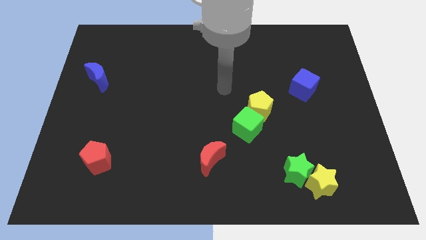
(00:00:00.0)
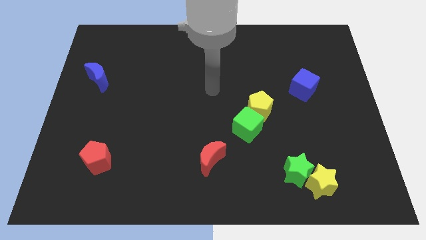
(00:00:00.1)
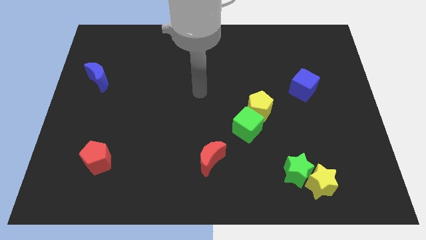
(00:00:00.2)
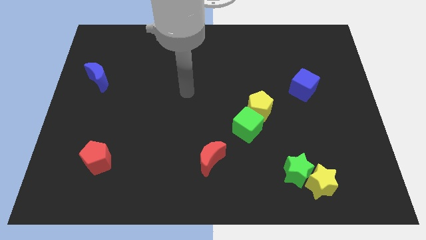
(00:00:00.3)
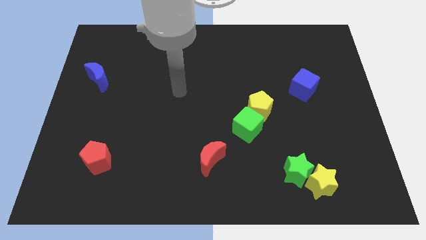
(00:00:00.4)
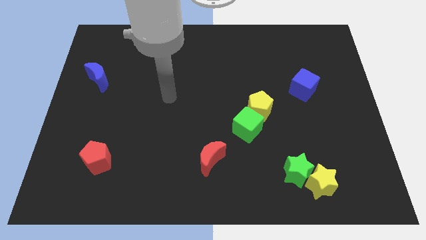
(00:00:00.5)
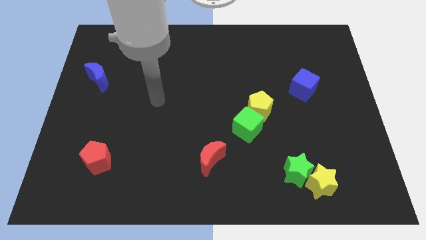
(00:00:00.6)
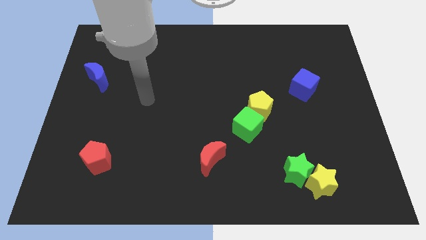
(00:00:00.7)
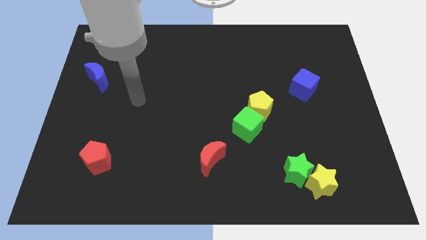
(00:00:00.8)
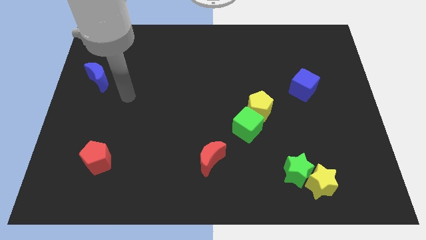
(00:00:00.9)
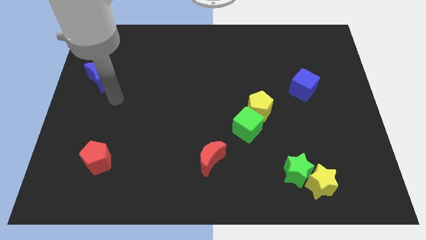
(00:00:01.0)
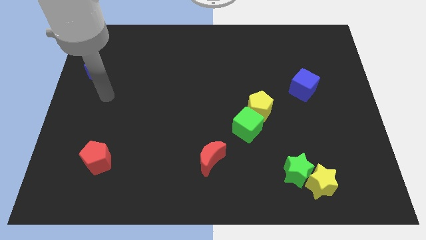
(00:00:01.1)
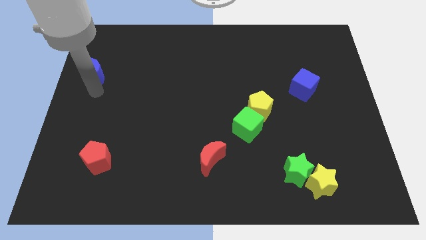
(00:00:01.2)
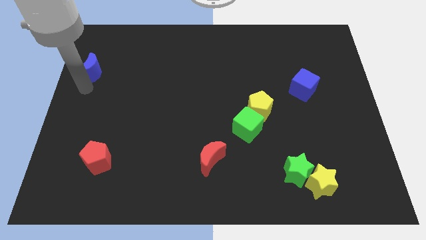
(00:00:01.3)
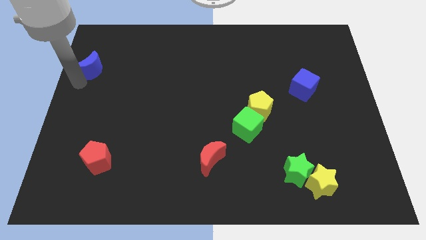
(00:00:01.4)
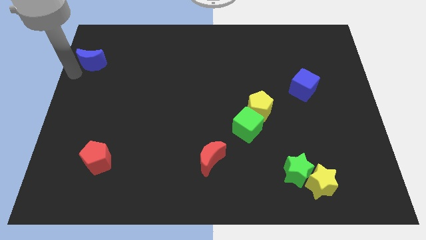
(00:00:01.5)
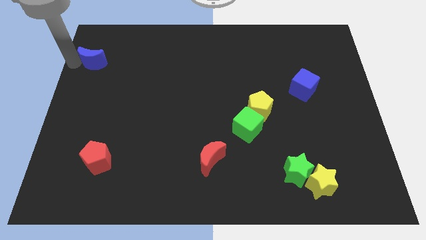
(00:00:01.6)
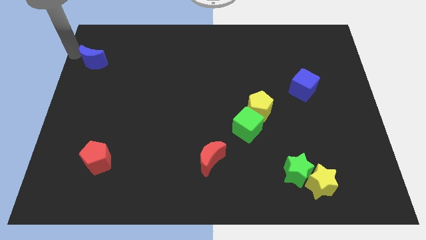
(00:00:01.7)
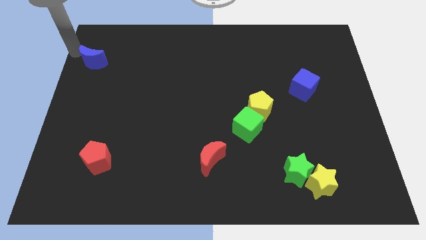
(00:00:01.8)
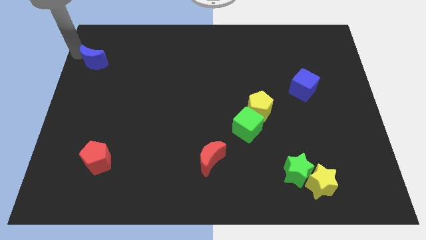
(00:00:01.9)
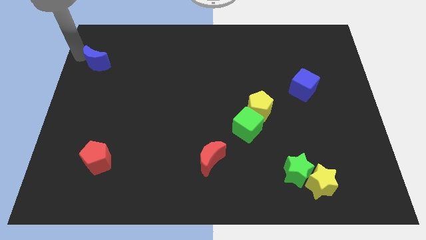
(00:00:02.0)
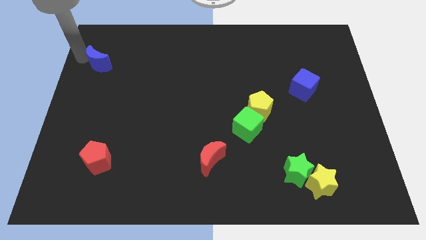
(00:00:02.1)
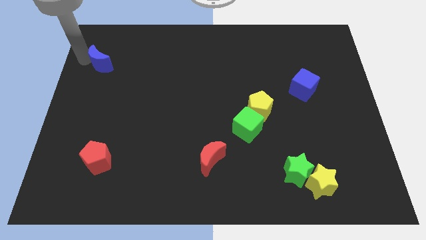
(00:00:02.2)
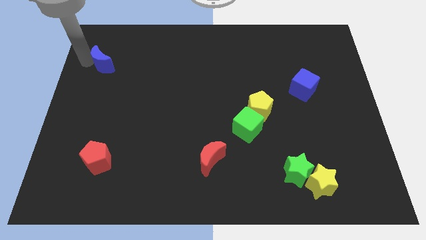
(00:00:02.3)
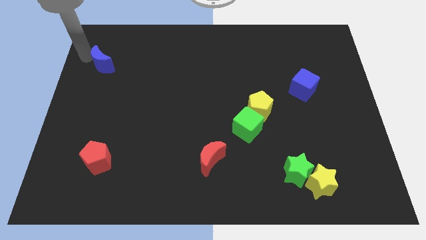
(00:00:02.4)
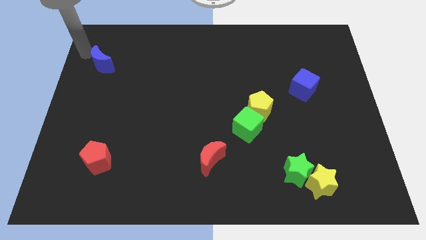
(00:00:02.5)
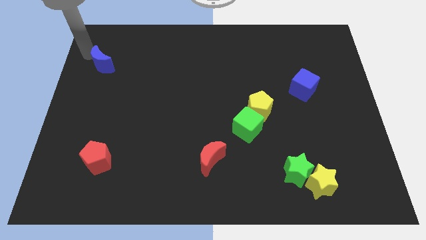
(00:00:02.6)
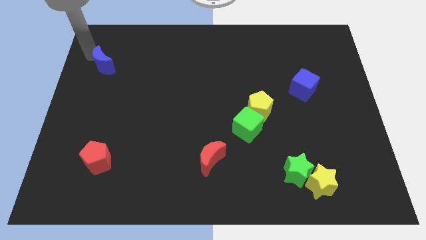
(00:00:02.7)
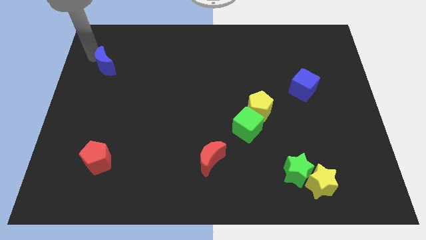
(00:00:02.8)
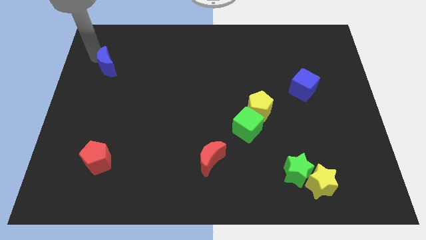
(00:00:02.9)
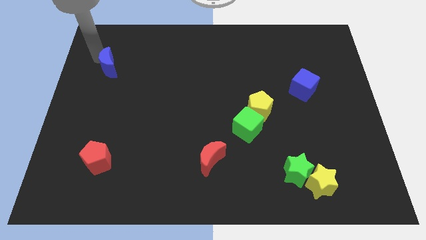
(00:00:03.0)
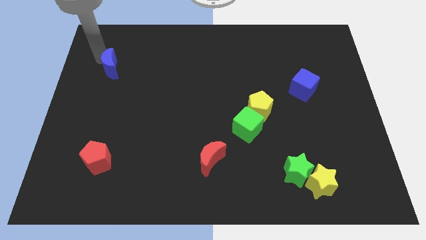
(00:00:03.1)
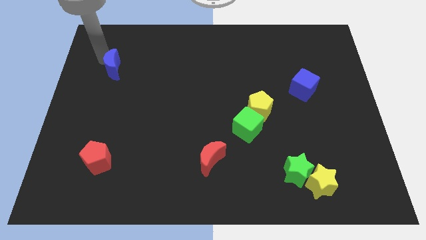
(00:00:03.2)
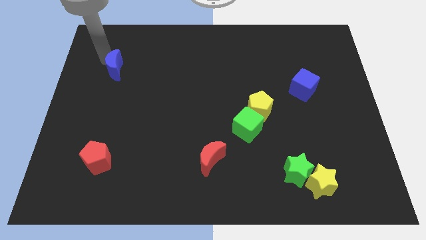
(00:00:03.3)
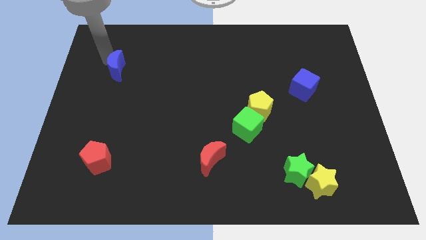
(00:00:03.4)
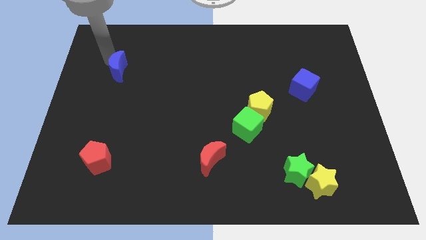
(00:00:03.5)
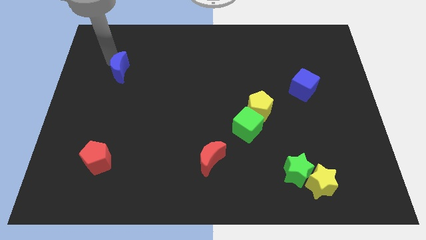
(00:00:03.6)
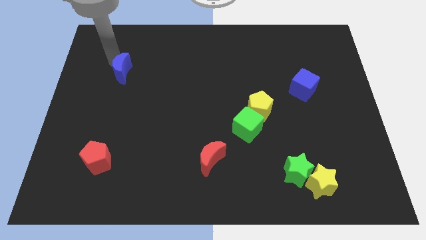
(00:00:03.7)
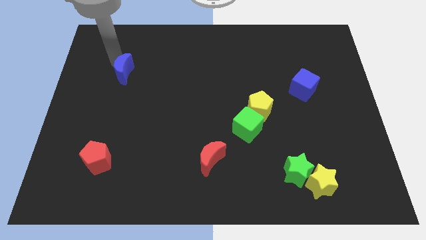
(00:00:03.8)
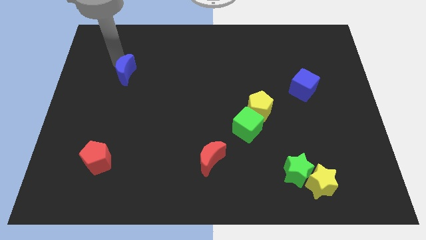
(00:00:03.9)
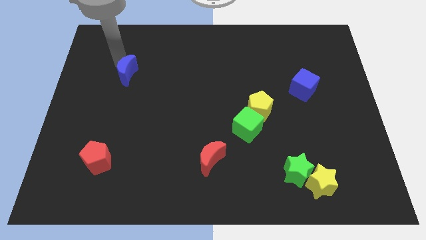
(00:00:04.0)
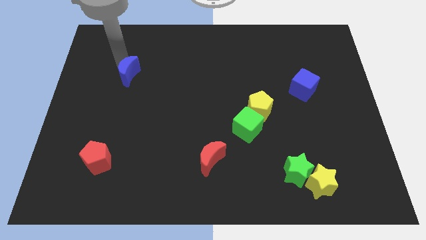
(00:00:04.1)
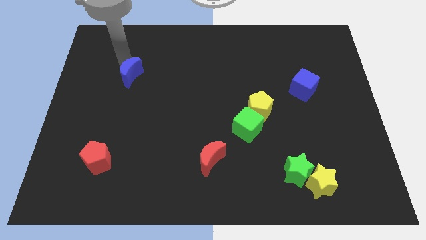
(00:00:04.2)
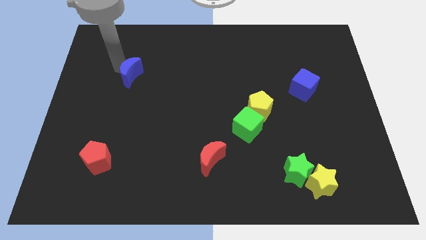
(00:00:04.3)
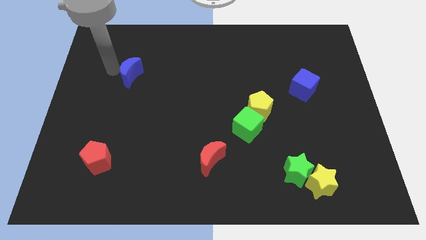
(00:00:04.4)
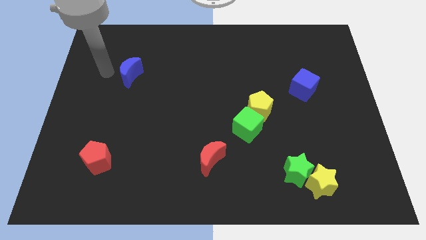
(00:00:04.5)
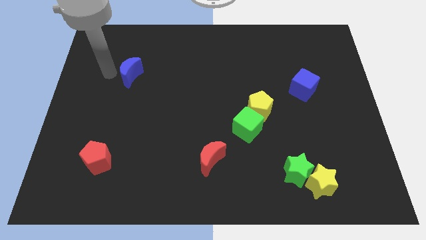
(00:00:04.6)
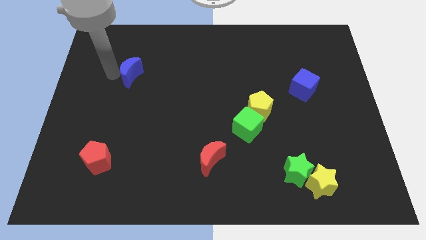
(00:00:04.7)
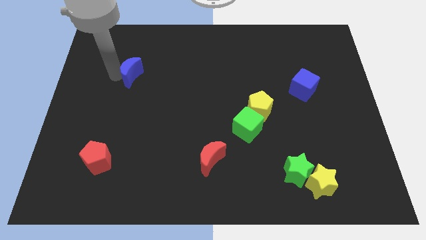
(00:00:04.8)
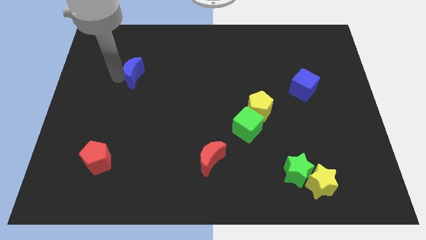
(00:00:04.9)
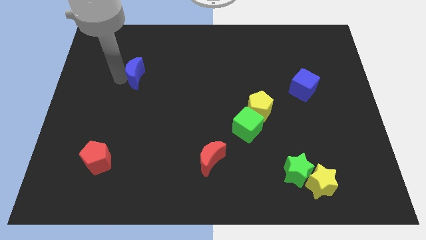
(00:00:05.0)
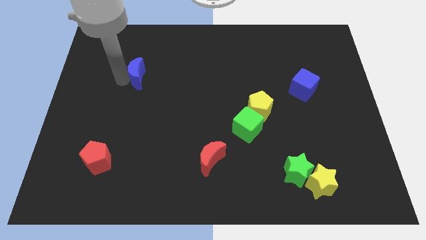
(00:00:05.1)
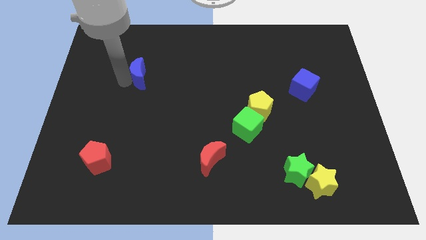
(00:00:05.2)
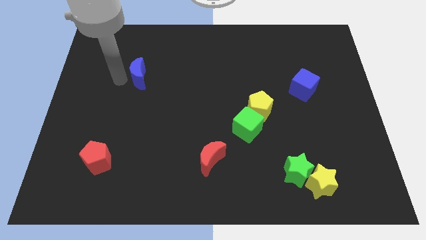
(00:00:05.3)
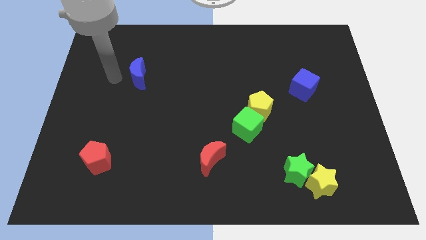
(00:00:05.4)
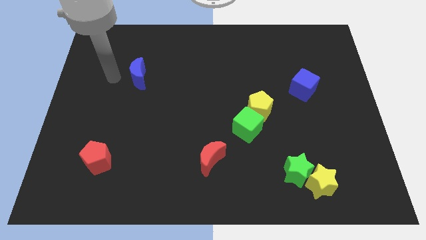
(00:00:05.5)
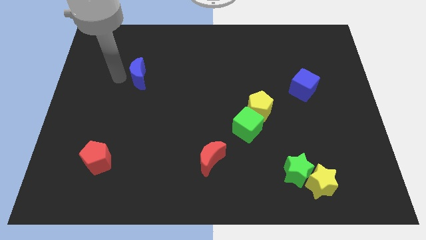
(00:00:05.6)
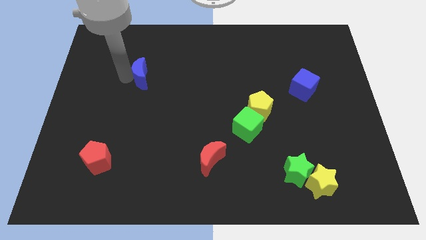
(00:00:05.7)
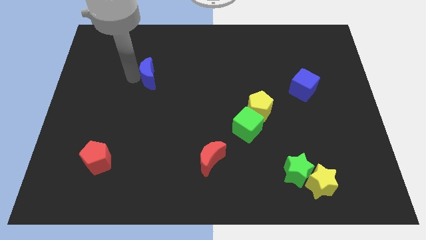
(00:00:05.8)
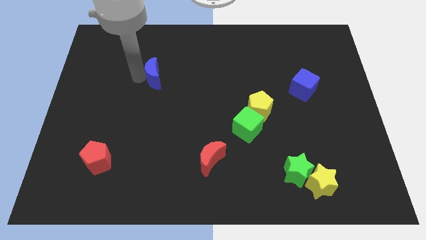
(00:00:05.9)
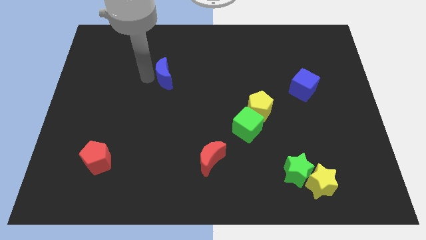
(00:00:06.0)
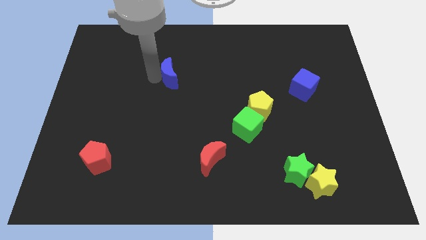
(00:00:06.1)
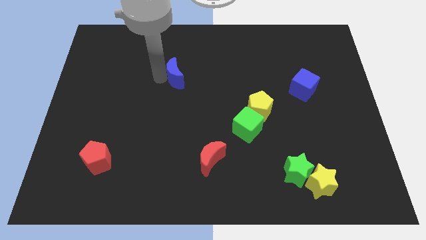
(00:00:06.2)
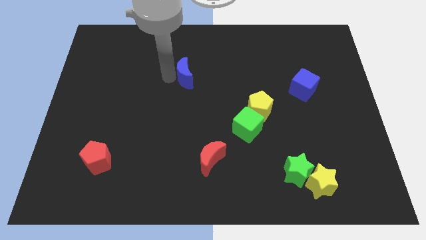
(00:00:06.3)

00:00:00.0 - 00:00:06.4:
slide the blue moon right

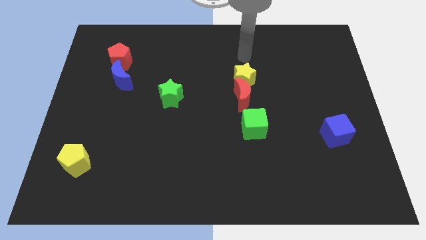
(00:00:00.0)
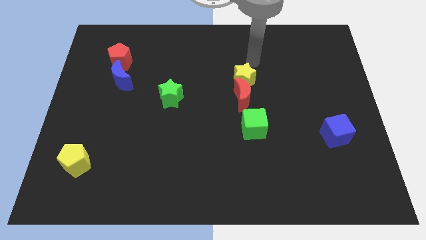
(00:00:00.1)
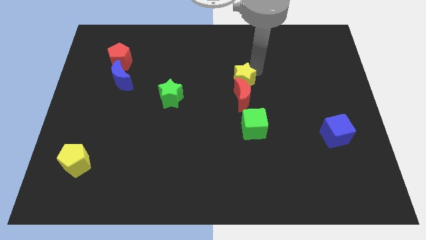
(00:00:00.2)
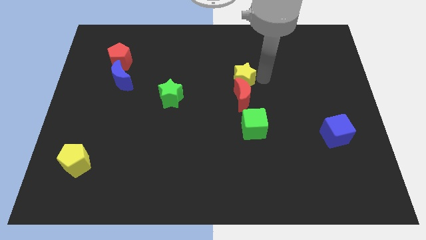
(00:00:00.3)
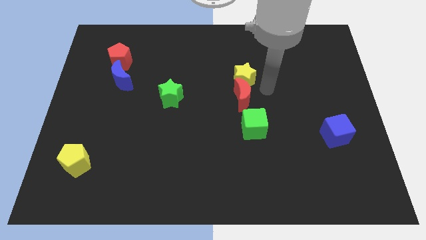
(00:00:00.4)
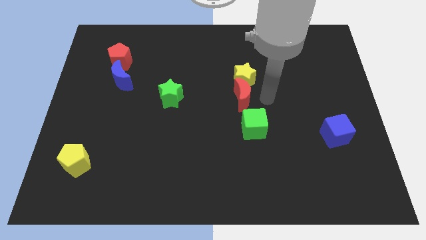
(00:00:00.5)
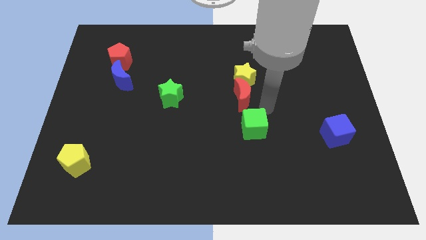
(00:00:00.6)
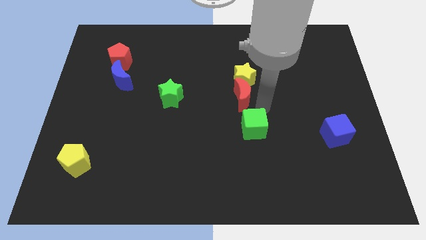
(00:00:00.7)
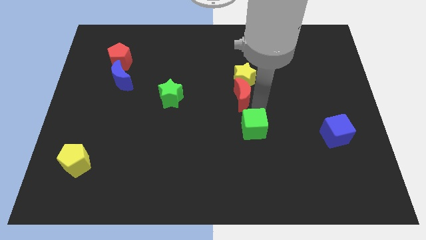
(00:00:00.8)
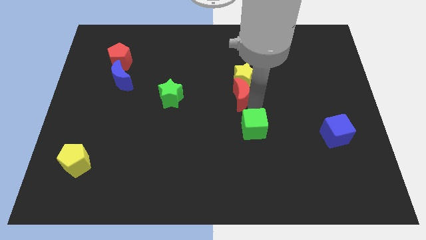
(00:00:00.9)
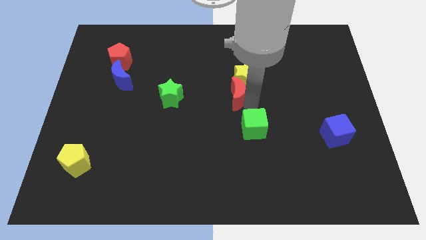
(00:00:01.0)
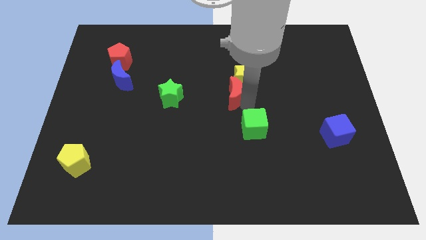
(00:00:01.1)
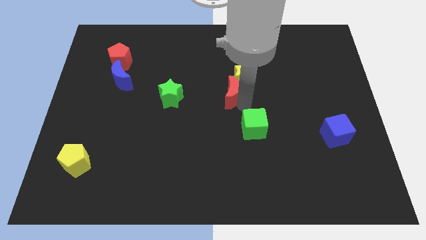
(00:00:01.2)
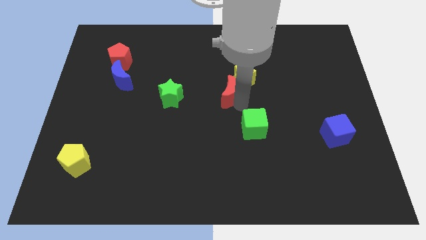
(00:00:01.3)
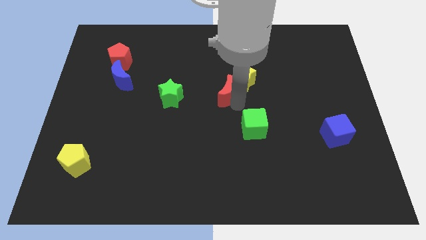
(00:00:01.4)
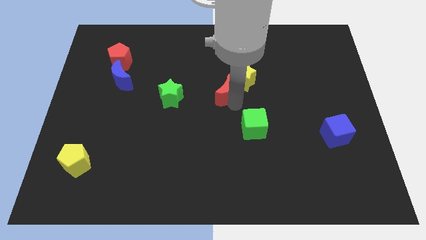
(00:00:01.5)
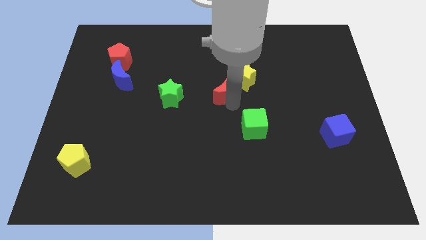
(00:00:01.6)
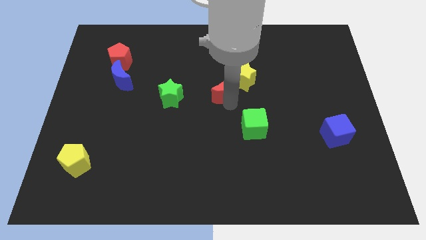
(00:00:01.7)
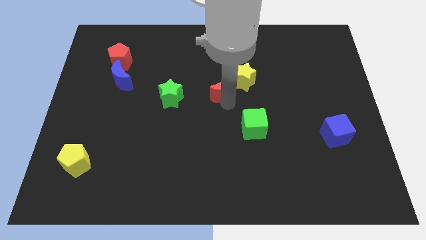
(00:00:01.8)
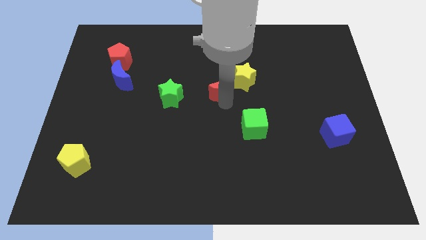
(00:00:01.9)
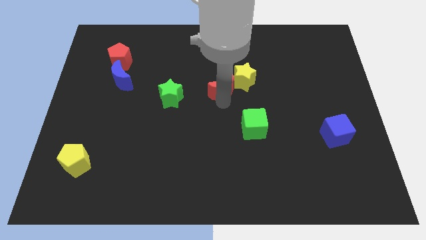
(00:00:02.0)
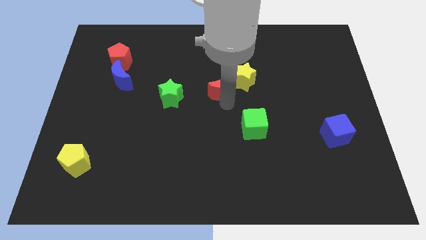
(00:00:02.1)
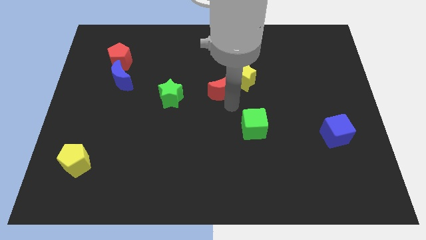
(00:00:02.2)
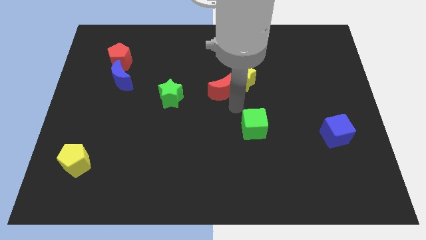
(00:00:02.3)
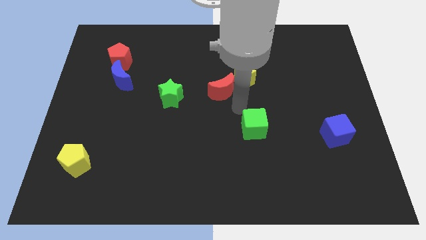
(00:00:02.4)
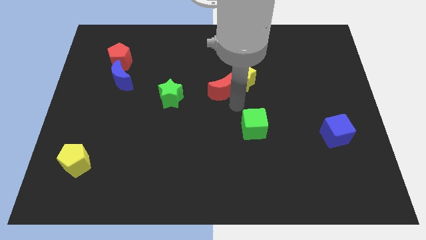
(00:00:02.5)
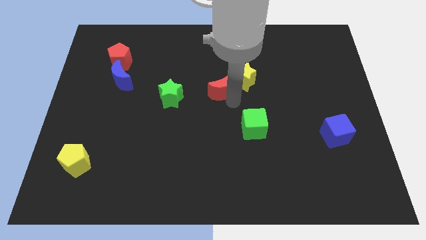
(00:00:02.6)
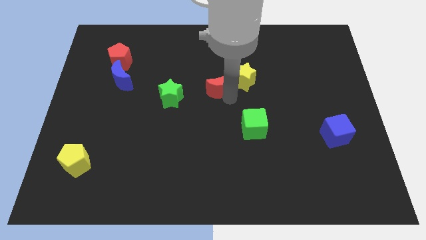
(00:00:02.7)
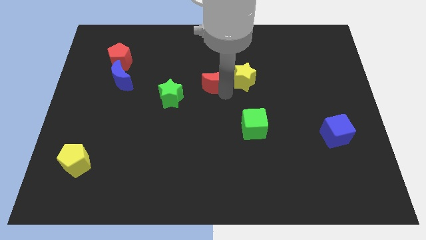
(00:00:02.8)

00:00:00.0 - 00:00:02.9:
push the red moon upwards and left diagonally a little bit
